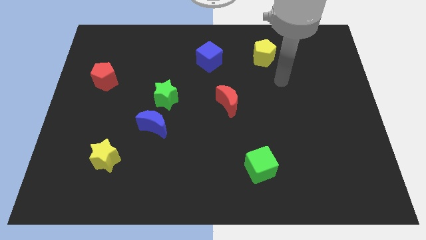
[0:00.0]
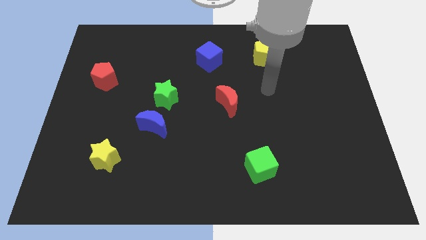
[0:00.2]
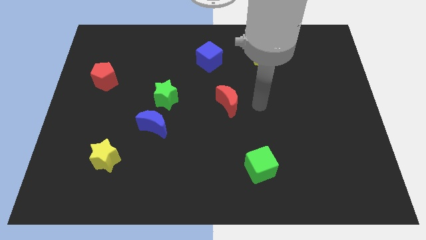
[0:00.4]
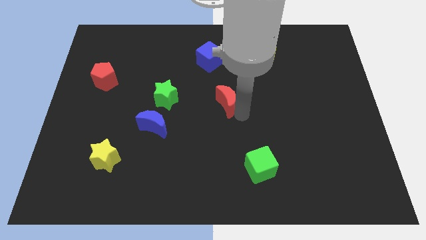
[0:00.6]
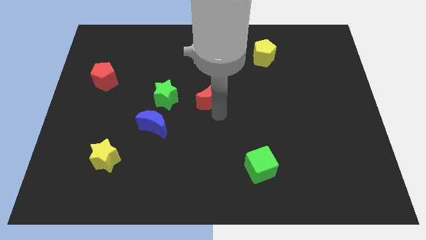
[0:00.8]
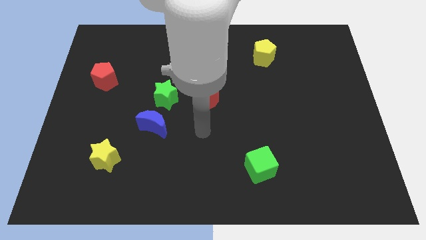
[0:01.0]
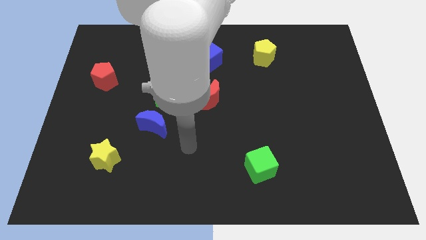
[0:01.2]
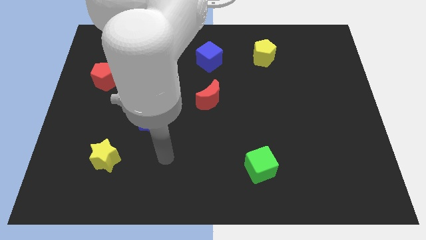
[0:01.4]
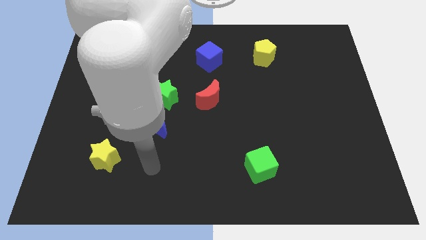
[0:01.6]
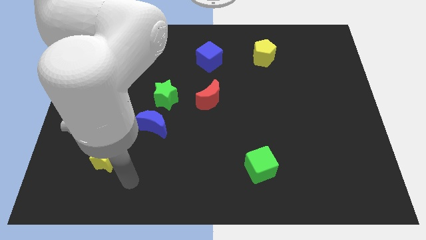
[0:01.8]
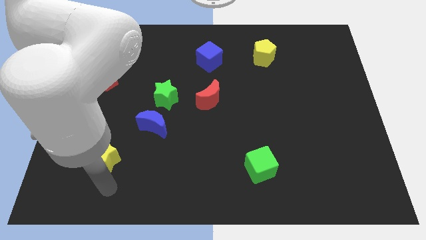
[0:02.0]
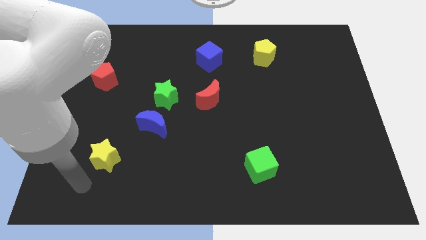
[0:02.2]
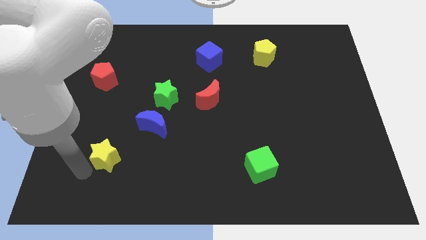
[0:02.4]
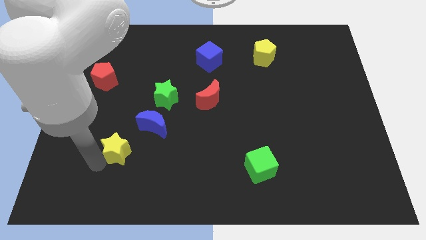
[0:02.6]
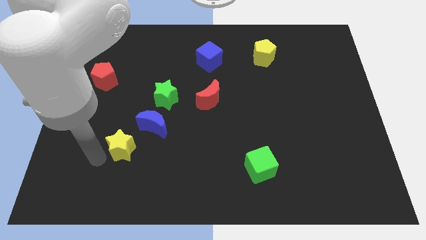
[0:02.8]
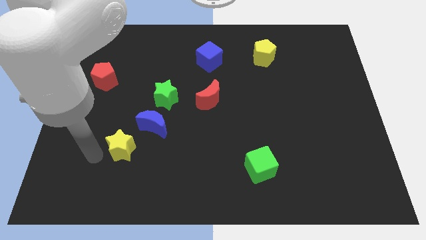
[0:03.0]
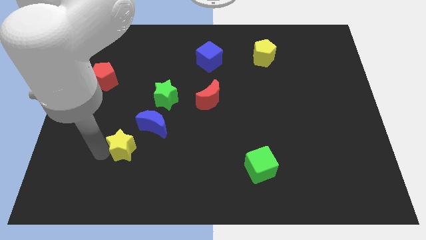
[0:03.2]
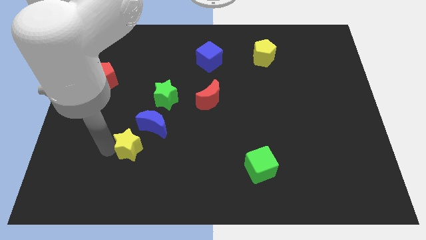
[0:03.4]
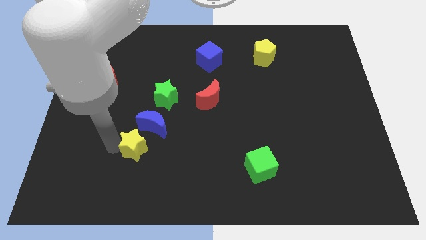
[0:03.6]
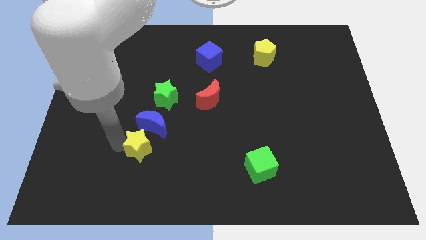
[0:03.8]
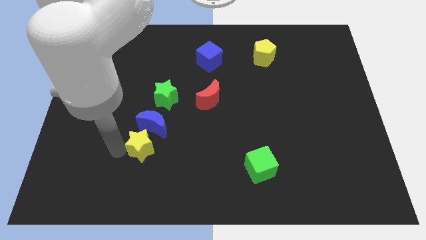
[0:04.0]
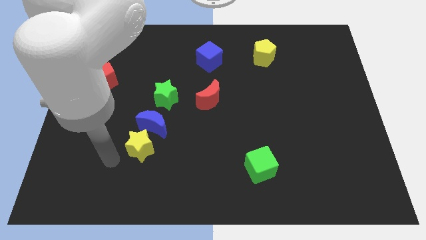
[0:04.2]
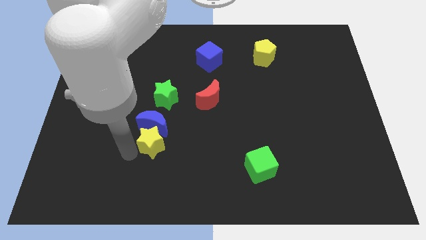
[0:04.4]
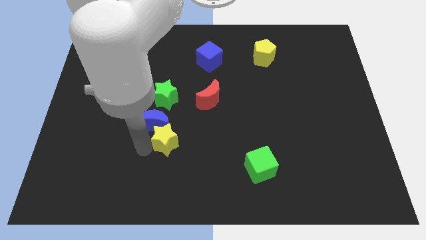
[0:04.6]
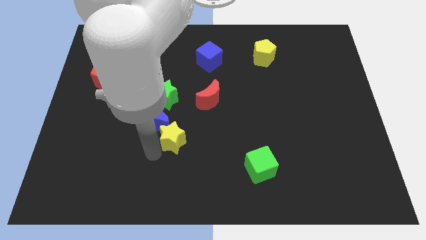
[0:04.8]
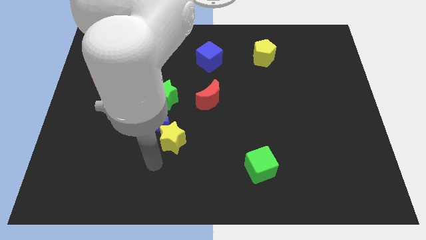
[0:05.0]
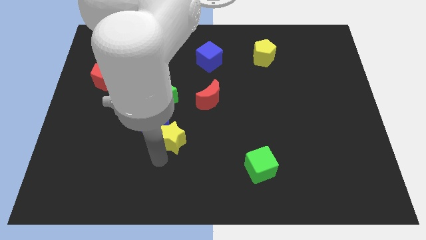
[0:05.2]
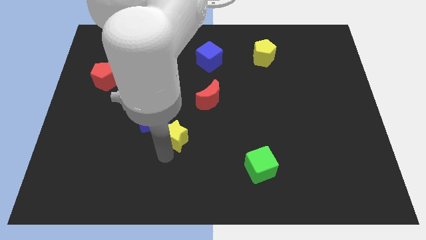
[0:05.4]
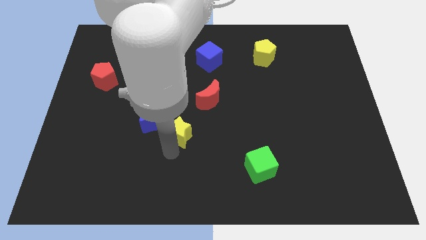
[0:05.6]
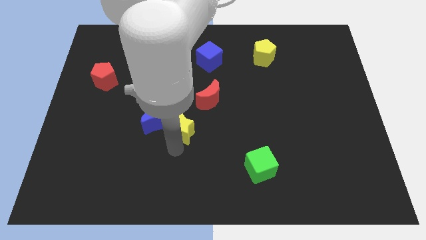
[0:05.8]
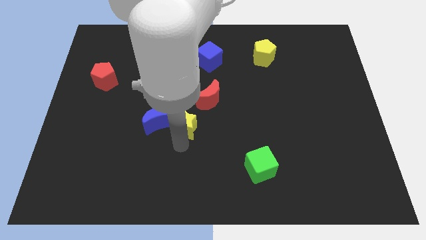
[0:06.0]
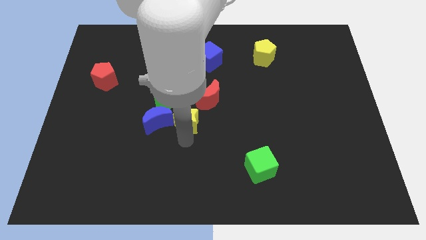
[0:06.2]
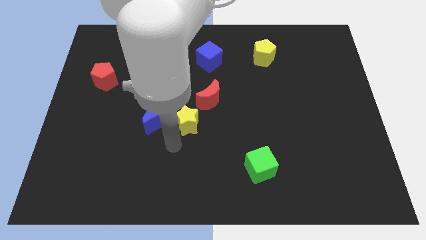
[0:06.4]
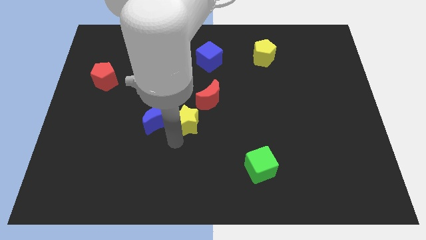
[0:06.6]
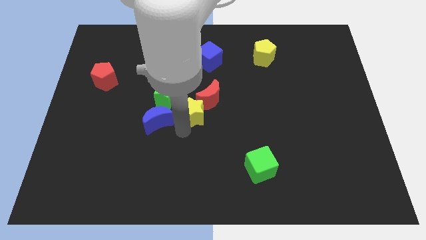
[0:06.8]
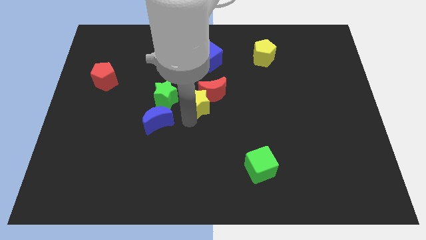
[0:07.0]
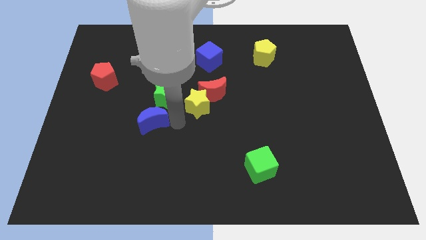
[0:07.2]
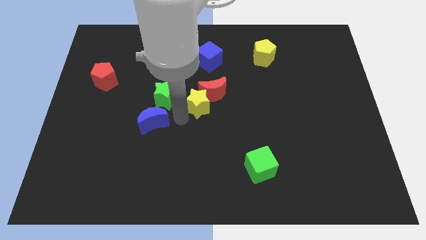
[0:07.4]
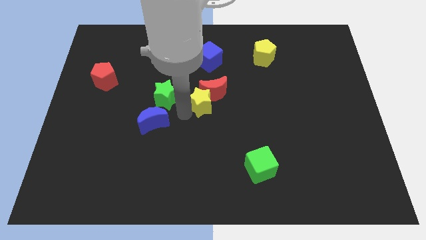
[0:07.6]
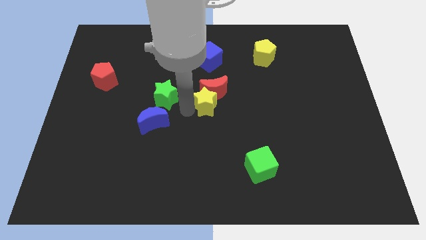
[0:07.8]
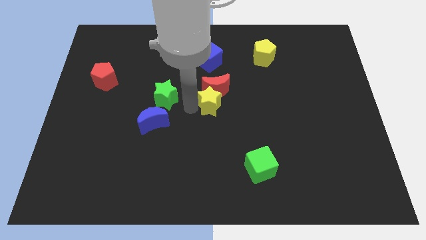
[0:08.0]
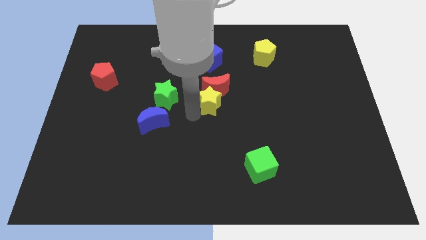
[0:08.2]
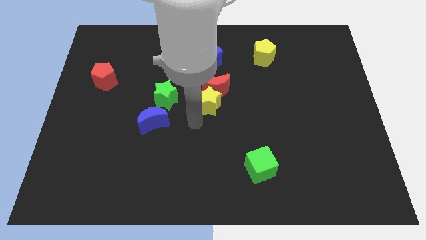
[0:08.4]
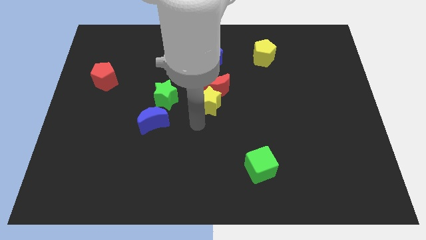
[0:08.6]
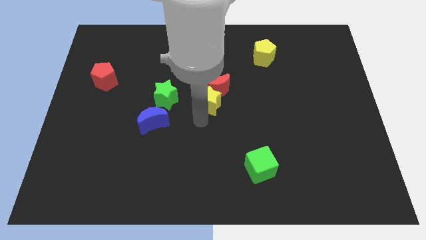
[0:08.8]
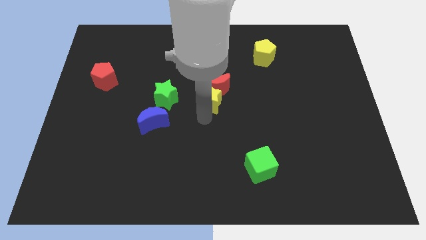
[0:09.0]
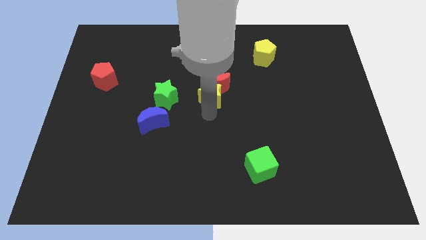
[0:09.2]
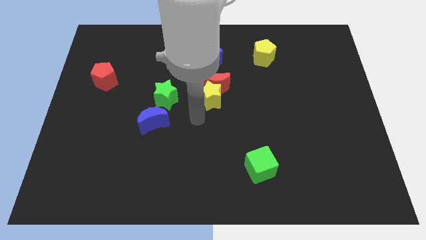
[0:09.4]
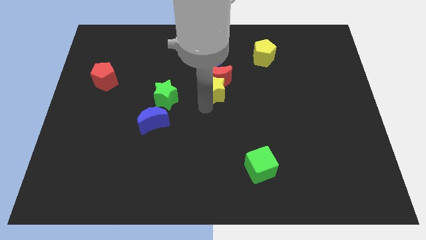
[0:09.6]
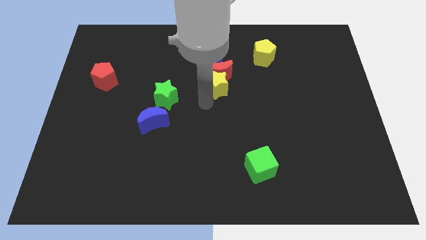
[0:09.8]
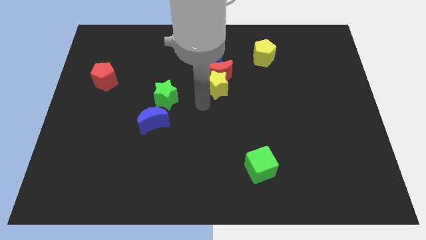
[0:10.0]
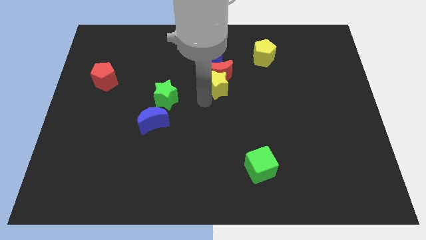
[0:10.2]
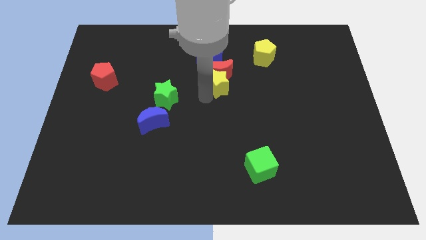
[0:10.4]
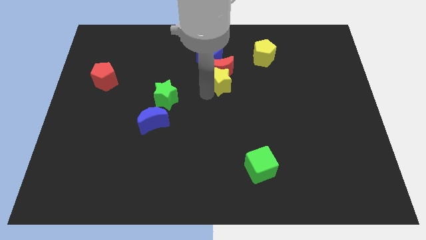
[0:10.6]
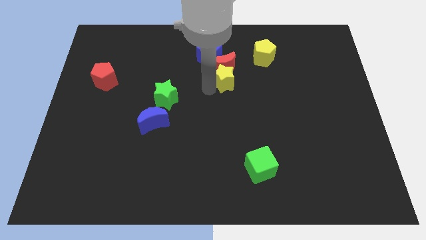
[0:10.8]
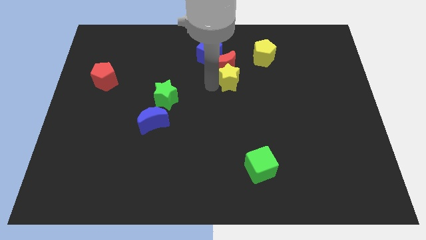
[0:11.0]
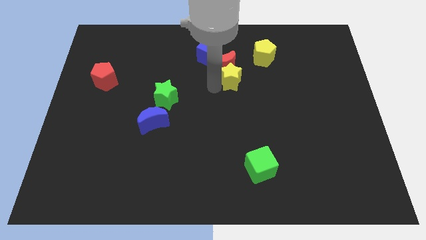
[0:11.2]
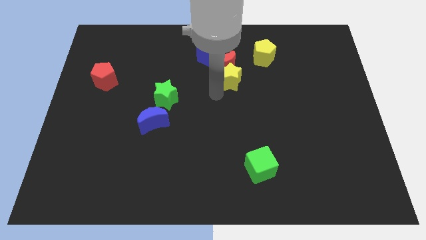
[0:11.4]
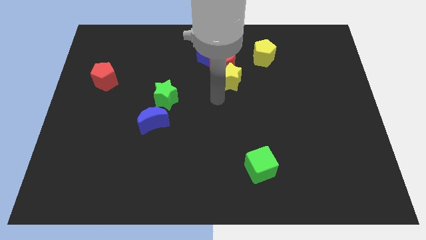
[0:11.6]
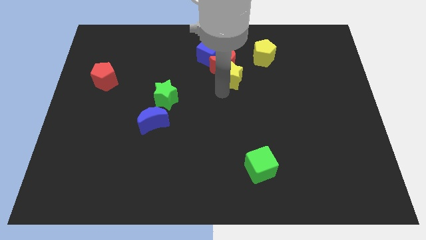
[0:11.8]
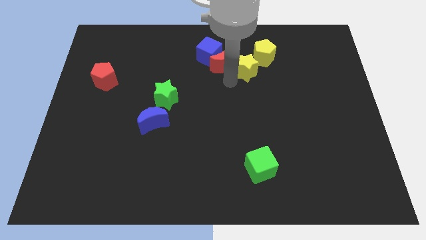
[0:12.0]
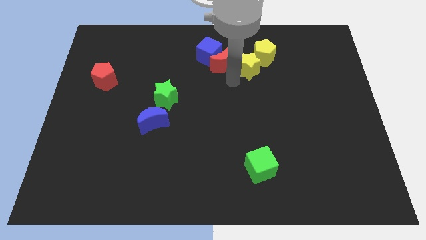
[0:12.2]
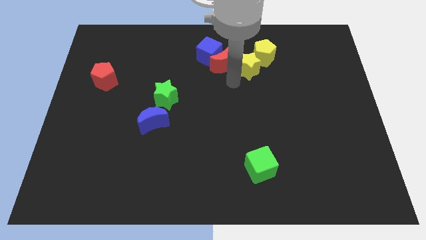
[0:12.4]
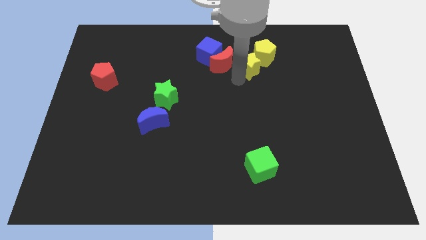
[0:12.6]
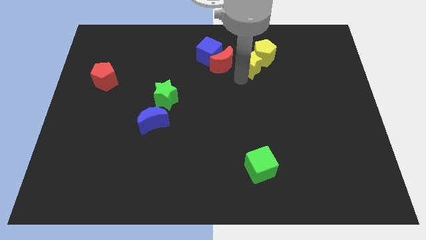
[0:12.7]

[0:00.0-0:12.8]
put the yellow star towards the yellow pentagon

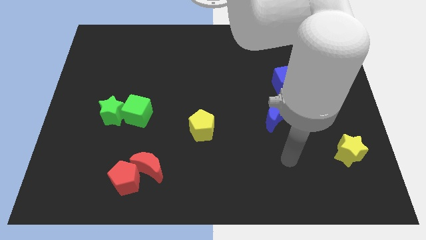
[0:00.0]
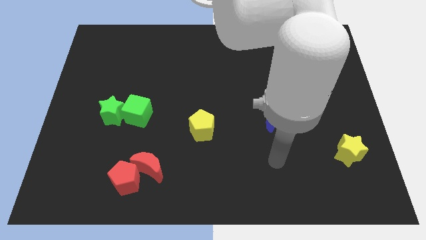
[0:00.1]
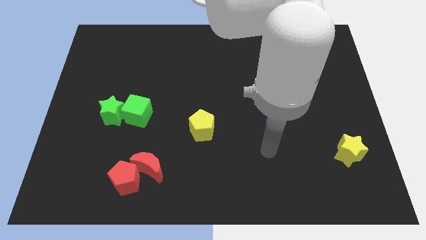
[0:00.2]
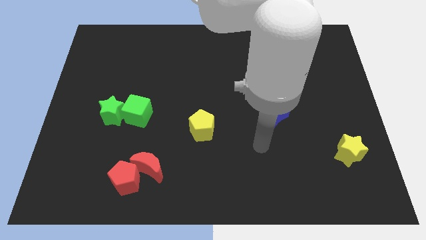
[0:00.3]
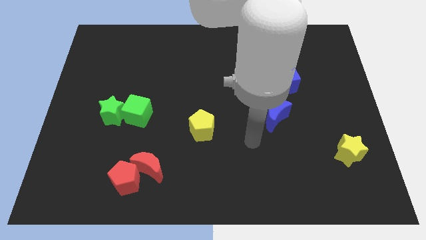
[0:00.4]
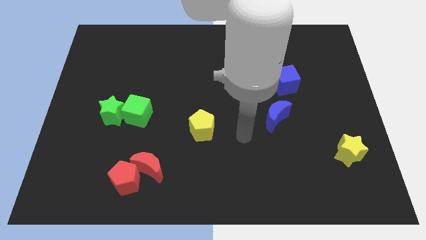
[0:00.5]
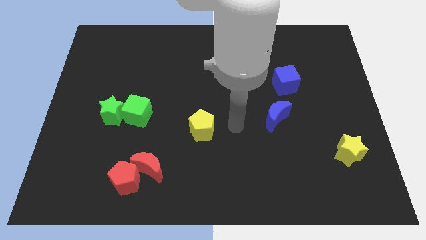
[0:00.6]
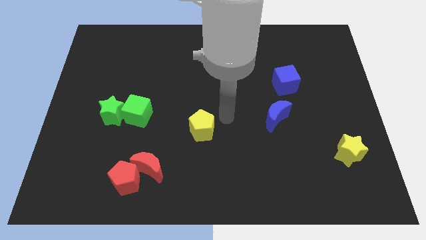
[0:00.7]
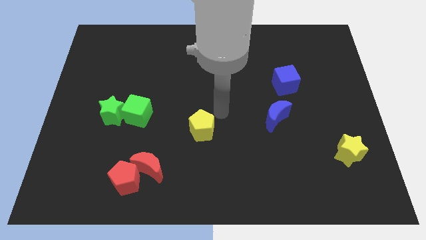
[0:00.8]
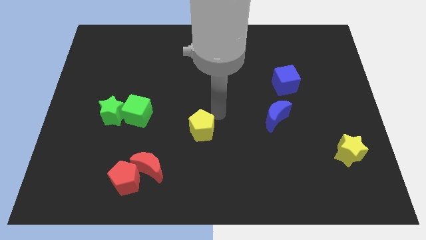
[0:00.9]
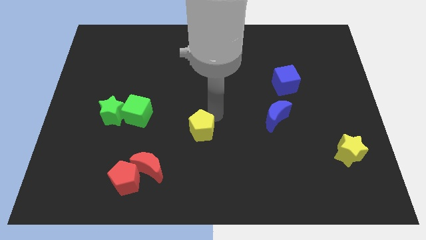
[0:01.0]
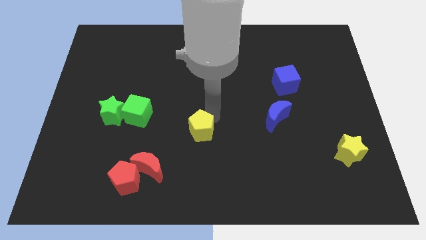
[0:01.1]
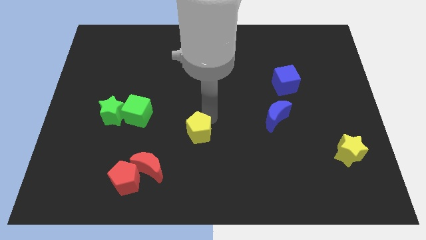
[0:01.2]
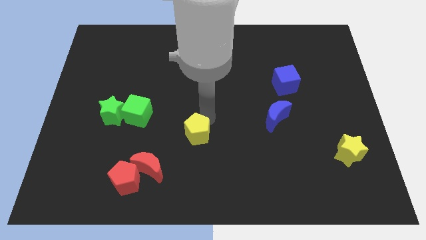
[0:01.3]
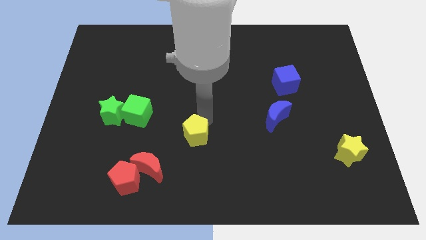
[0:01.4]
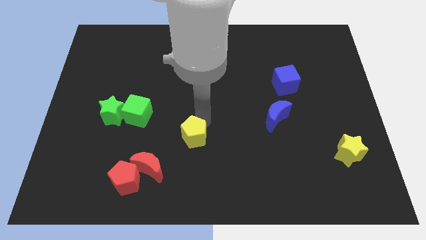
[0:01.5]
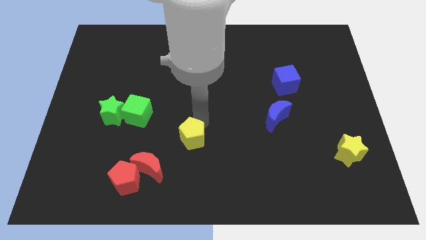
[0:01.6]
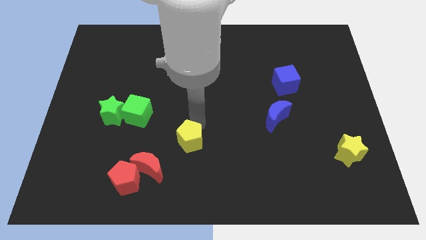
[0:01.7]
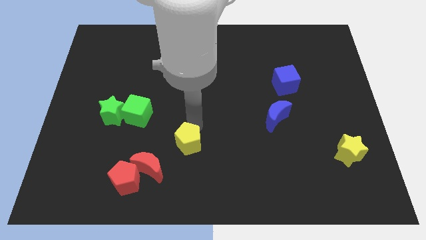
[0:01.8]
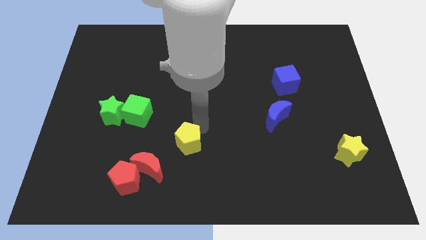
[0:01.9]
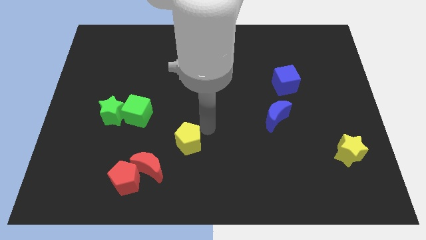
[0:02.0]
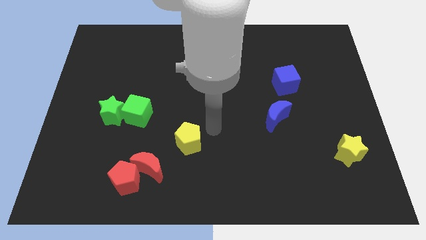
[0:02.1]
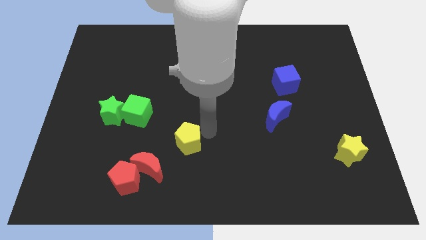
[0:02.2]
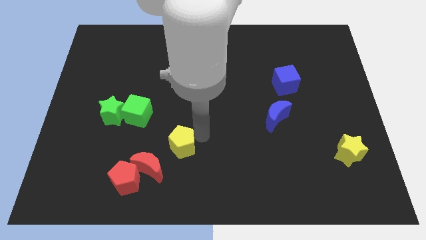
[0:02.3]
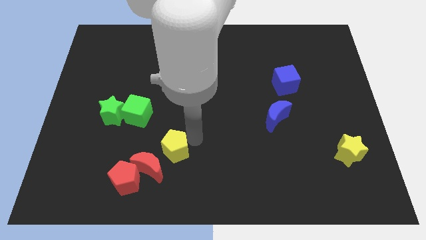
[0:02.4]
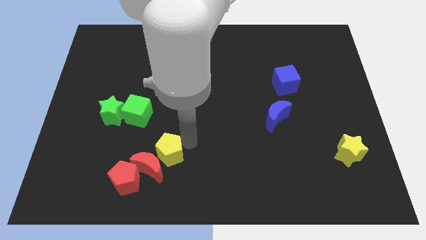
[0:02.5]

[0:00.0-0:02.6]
push the yellow pentagon next to the red moon
